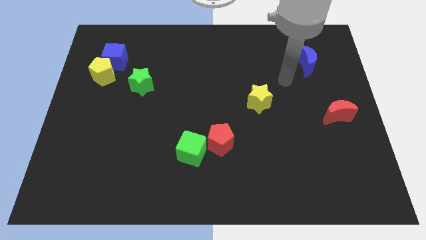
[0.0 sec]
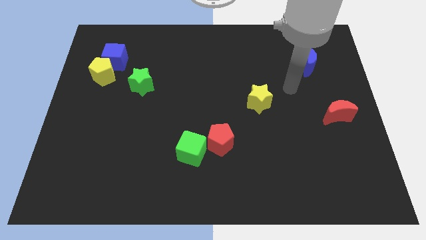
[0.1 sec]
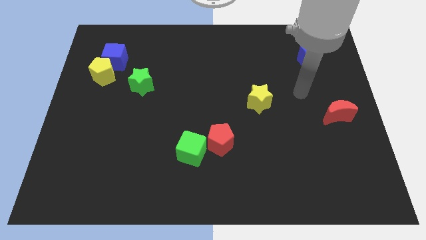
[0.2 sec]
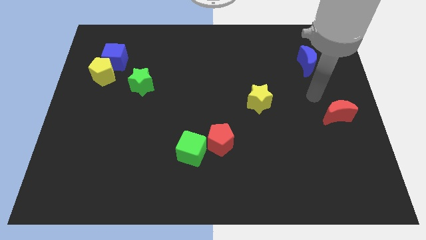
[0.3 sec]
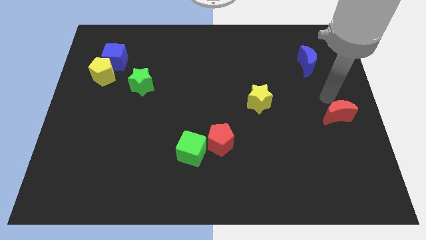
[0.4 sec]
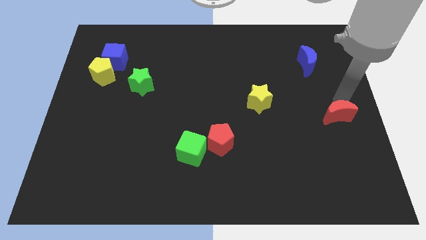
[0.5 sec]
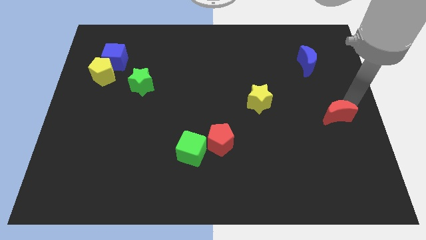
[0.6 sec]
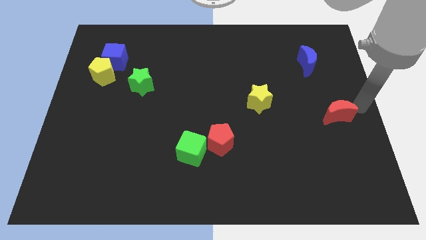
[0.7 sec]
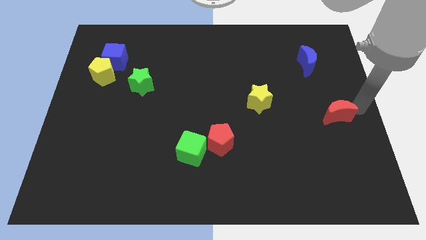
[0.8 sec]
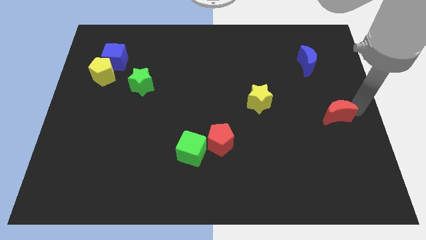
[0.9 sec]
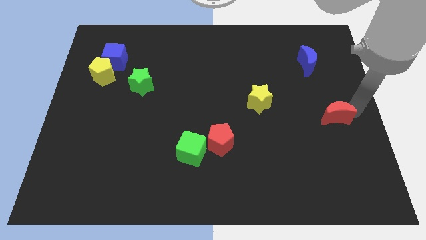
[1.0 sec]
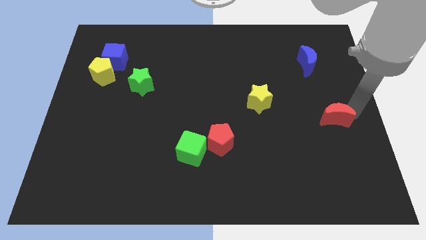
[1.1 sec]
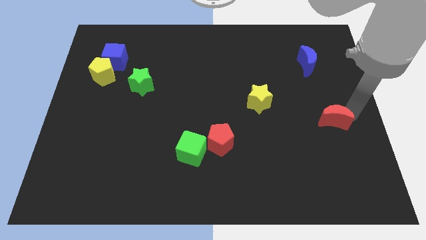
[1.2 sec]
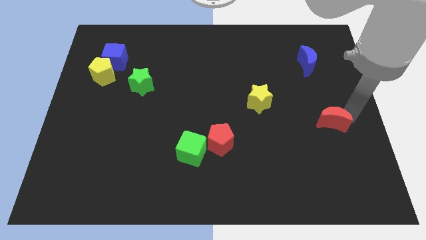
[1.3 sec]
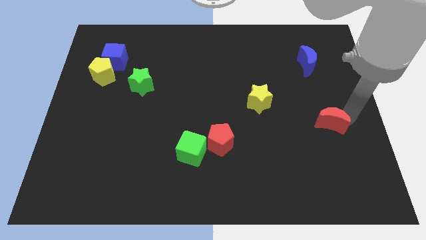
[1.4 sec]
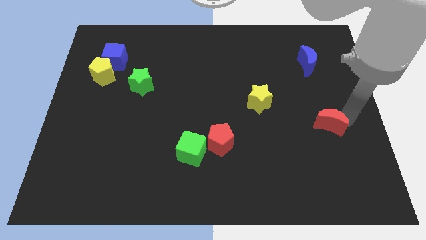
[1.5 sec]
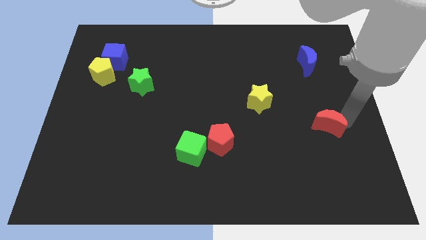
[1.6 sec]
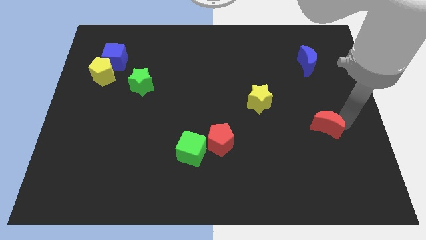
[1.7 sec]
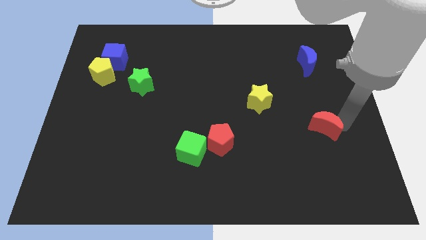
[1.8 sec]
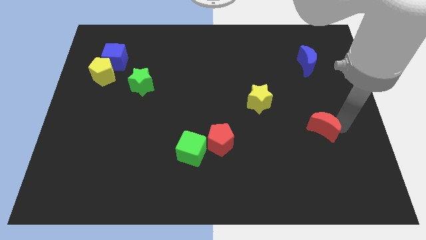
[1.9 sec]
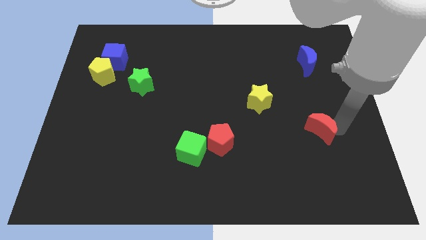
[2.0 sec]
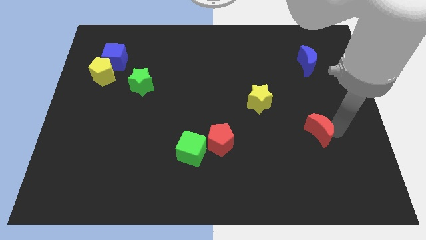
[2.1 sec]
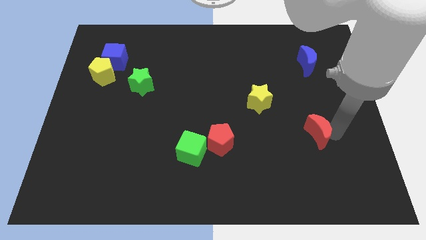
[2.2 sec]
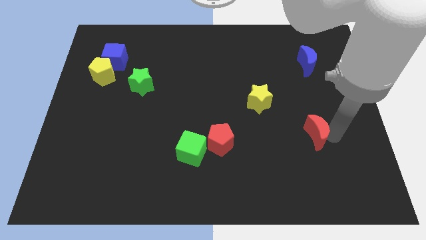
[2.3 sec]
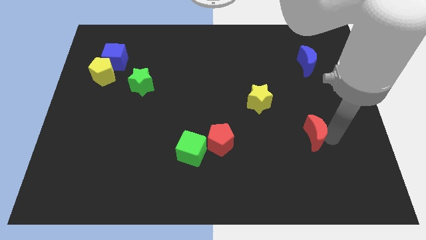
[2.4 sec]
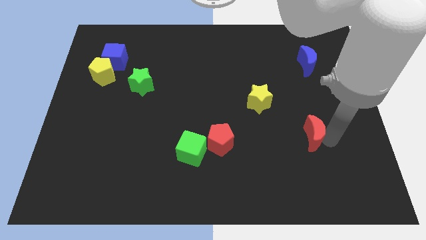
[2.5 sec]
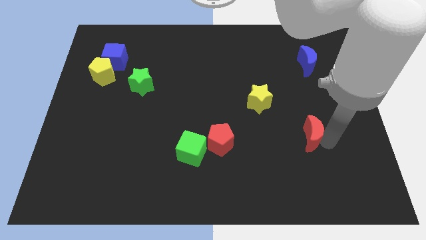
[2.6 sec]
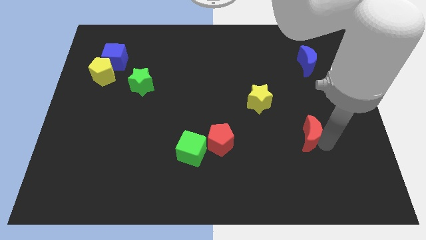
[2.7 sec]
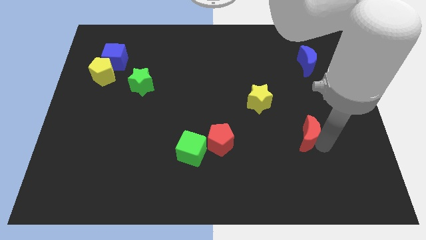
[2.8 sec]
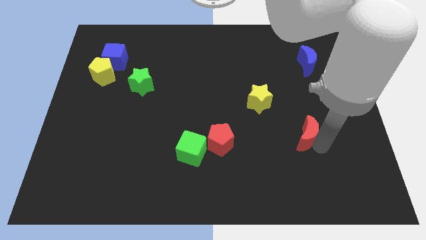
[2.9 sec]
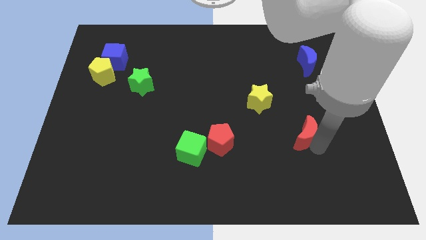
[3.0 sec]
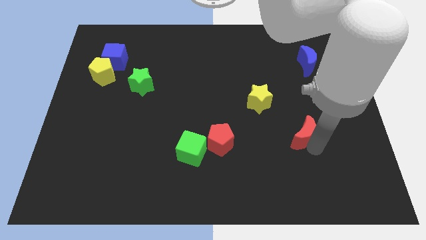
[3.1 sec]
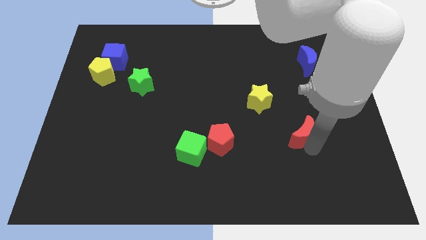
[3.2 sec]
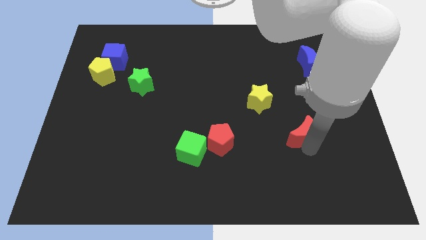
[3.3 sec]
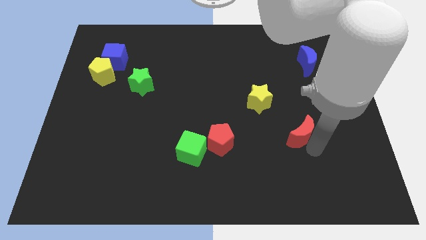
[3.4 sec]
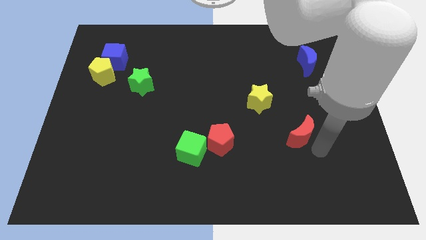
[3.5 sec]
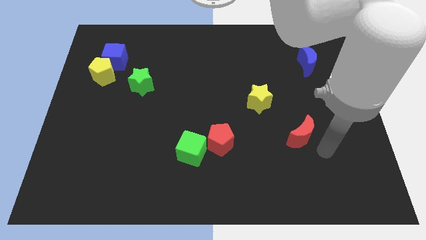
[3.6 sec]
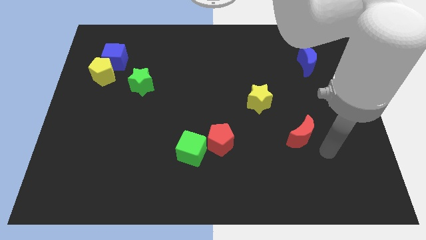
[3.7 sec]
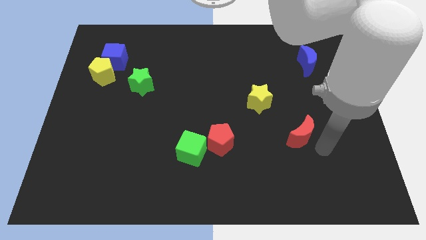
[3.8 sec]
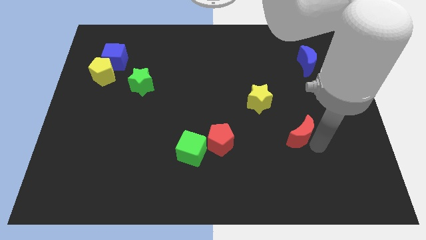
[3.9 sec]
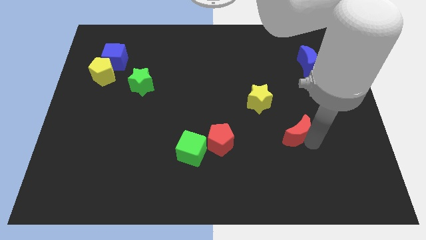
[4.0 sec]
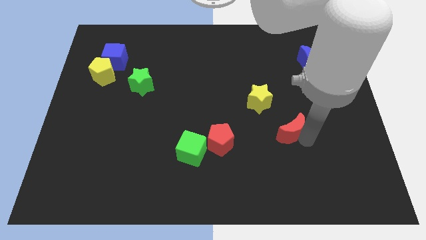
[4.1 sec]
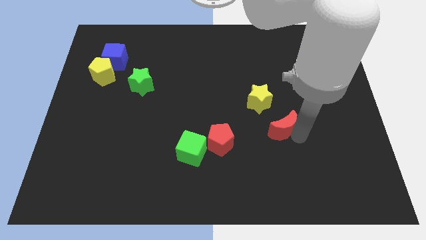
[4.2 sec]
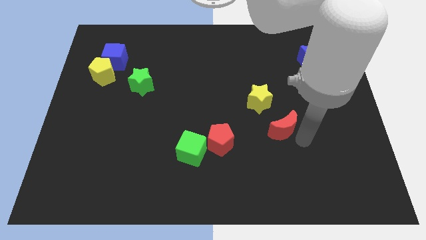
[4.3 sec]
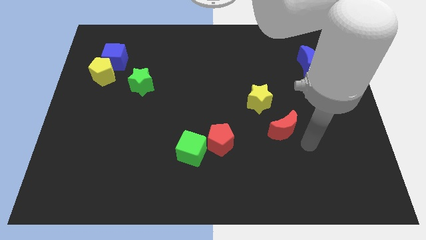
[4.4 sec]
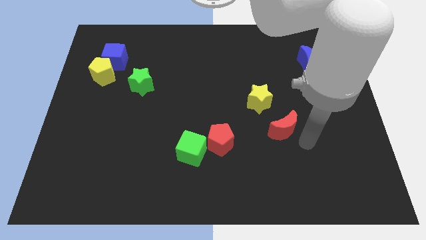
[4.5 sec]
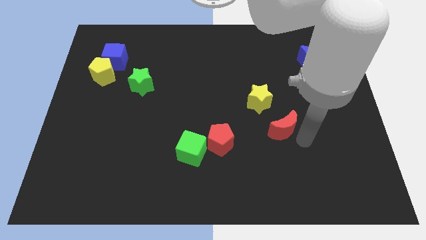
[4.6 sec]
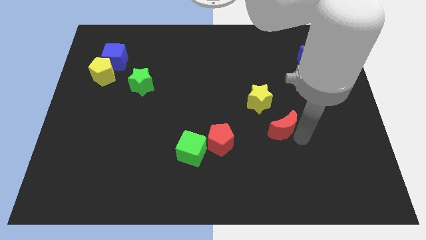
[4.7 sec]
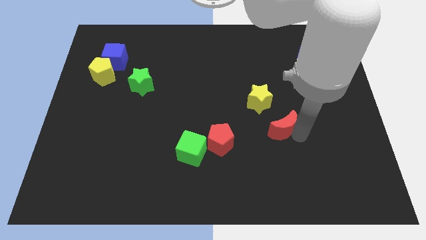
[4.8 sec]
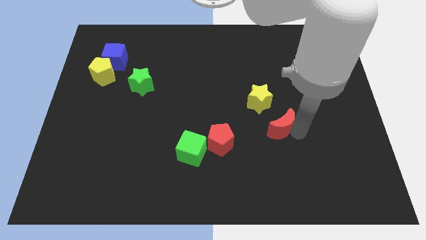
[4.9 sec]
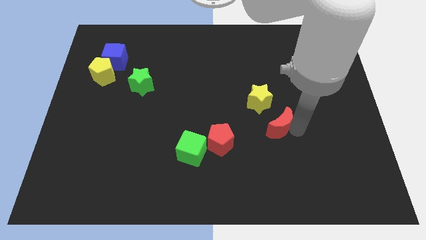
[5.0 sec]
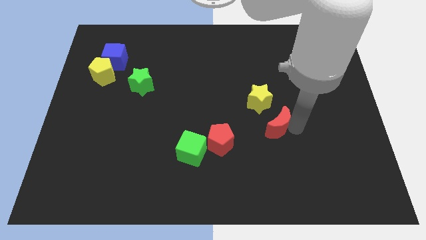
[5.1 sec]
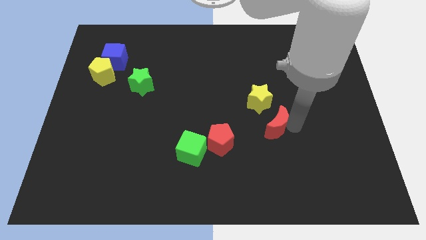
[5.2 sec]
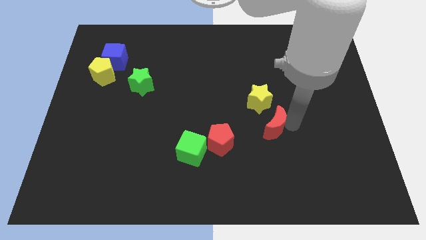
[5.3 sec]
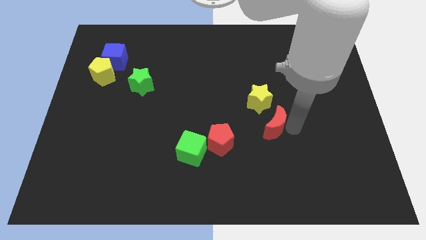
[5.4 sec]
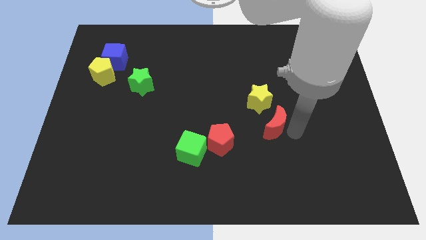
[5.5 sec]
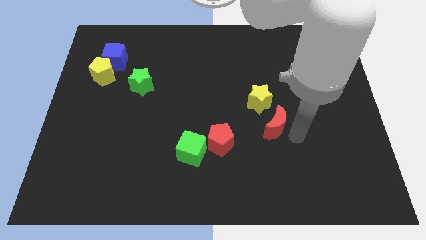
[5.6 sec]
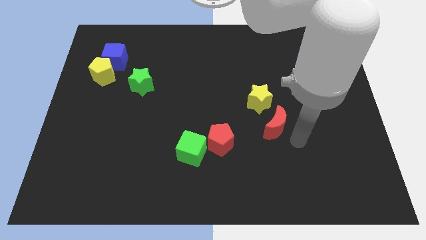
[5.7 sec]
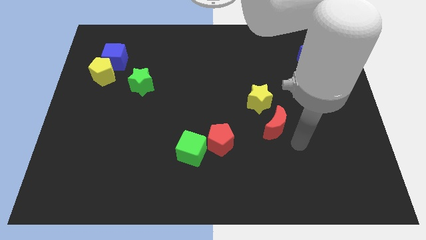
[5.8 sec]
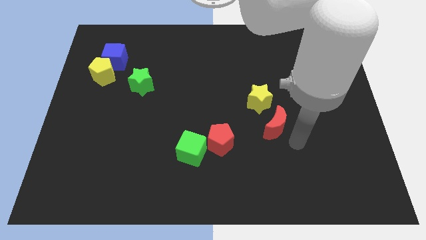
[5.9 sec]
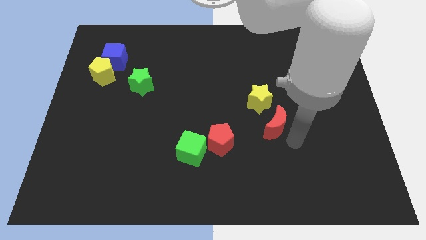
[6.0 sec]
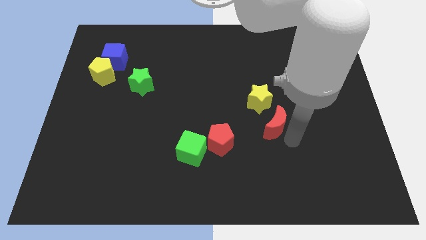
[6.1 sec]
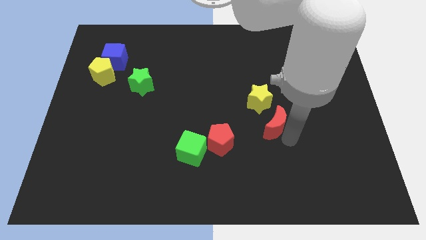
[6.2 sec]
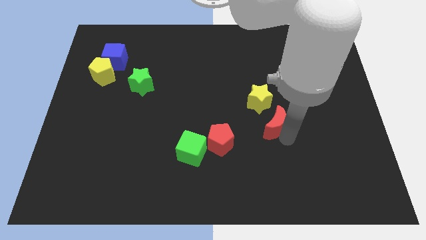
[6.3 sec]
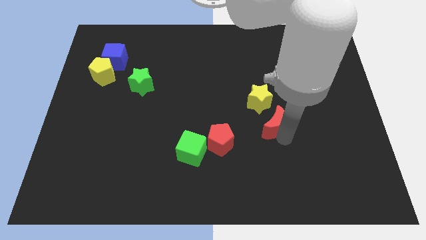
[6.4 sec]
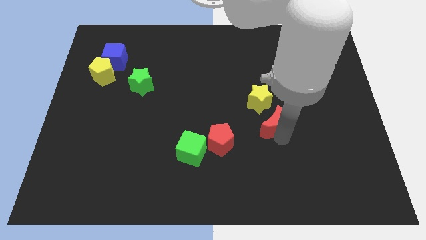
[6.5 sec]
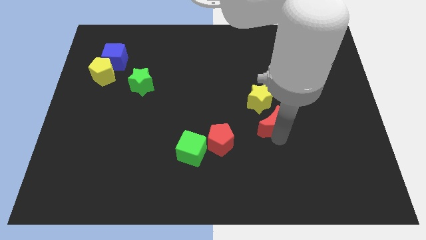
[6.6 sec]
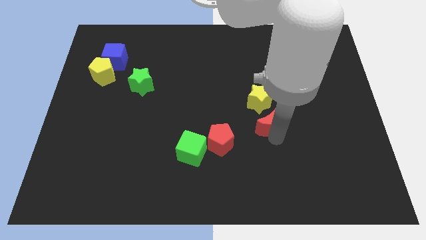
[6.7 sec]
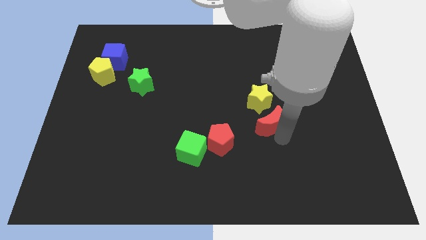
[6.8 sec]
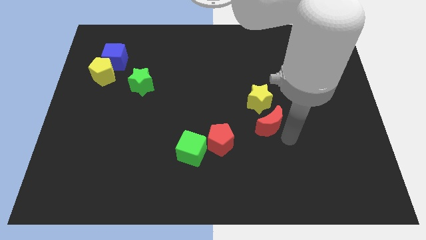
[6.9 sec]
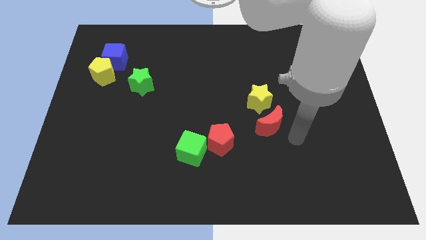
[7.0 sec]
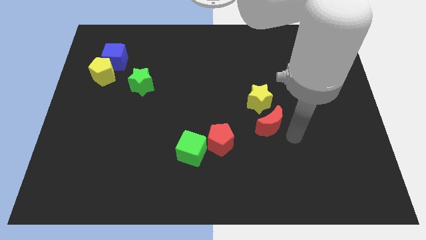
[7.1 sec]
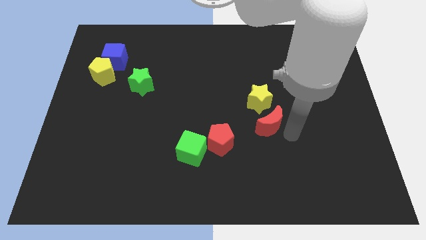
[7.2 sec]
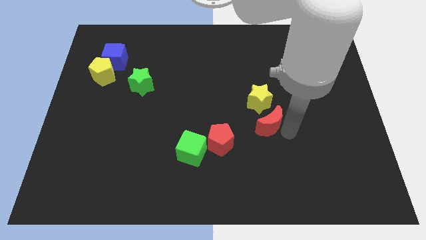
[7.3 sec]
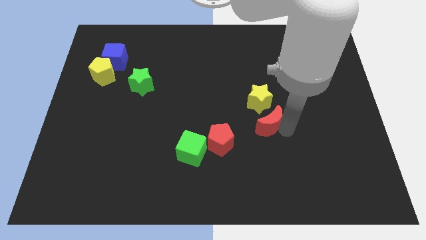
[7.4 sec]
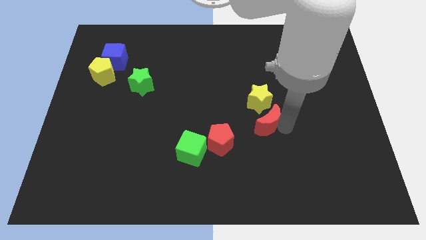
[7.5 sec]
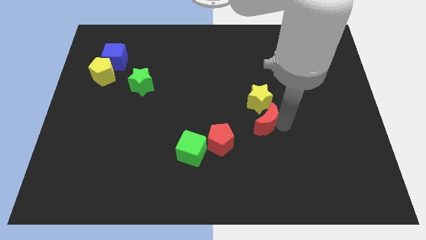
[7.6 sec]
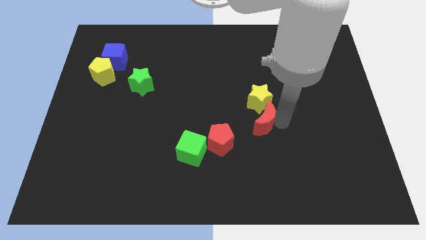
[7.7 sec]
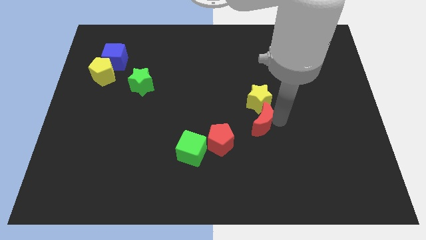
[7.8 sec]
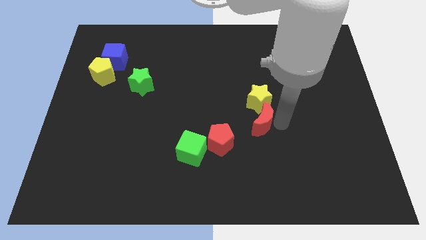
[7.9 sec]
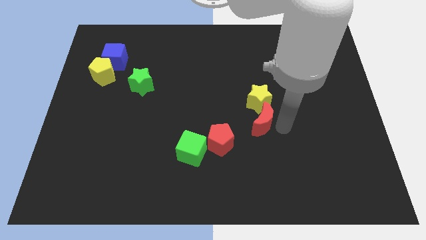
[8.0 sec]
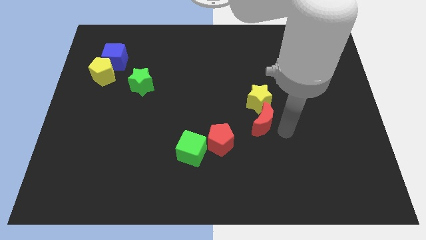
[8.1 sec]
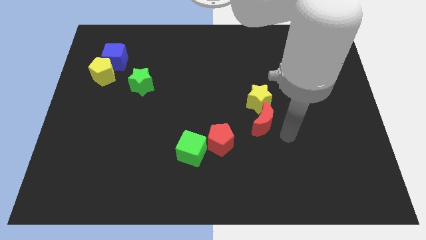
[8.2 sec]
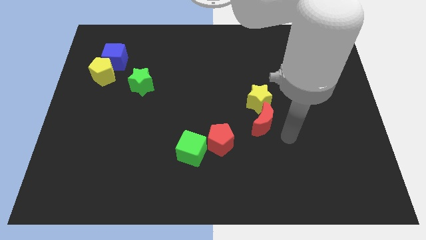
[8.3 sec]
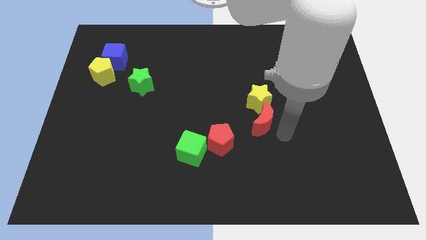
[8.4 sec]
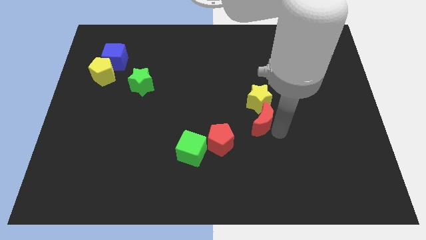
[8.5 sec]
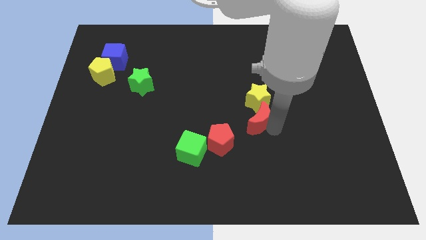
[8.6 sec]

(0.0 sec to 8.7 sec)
slide the red moon to the center
